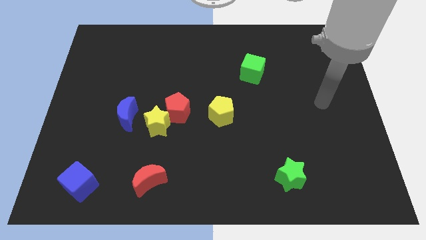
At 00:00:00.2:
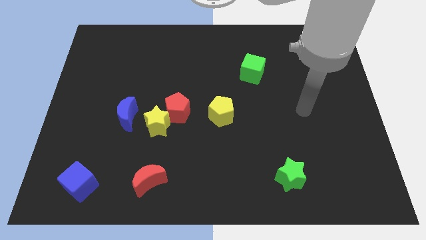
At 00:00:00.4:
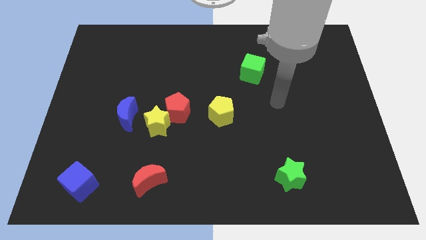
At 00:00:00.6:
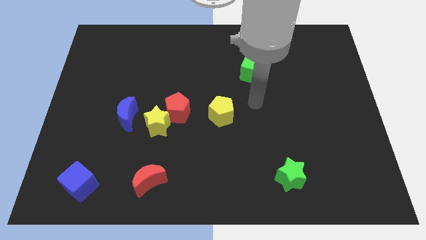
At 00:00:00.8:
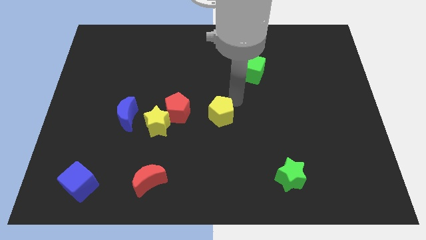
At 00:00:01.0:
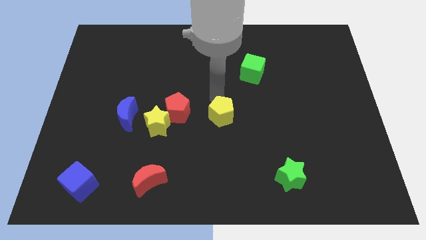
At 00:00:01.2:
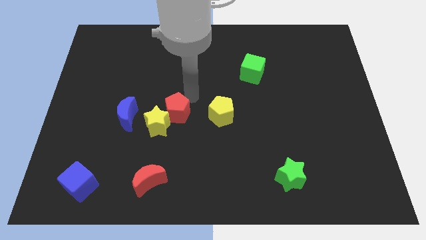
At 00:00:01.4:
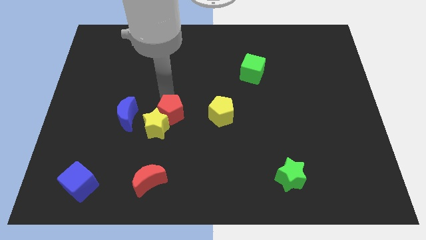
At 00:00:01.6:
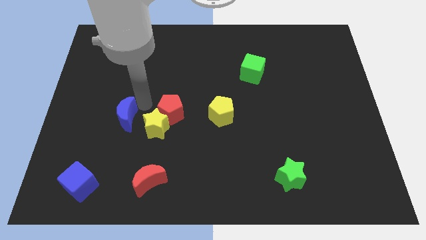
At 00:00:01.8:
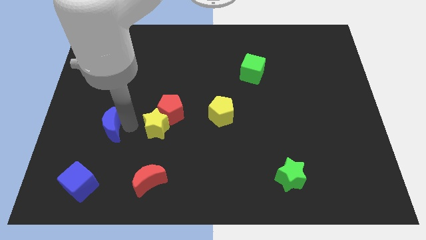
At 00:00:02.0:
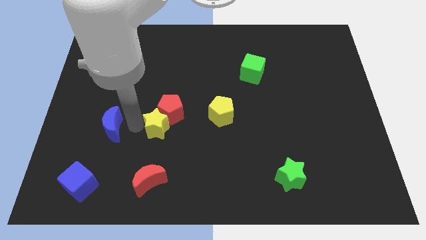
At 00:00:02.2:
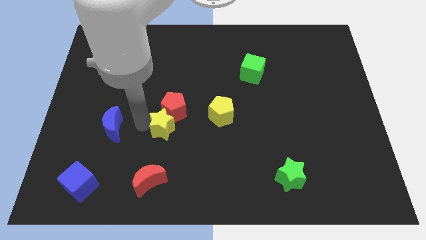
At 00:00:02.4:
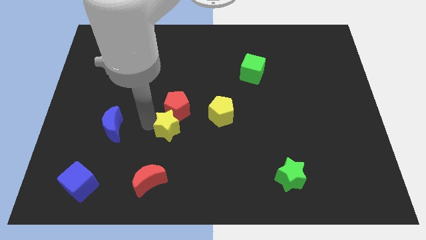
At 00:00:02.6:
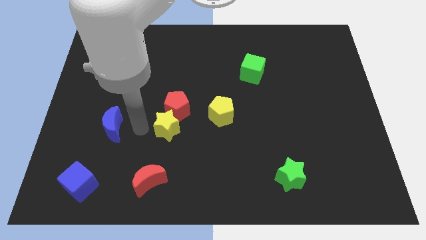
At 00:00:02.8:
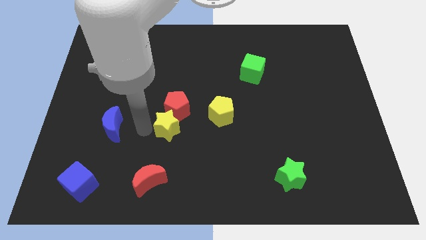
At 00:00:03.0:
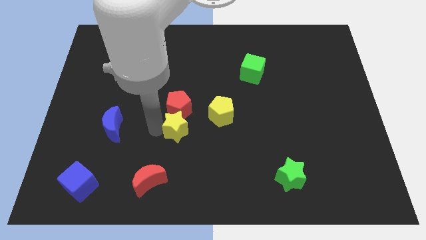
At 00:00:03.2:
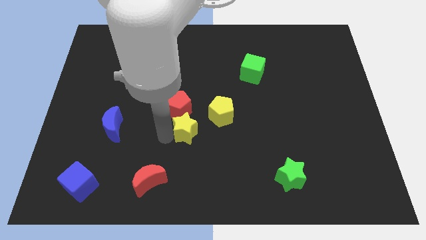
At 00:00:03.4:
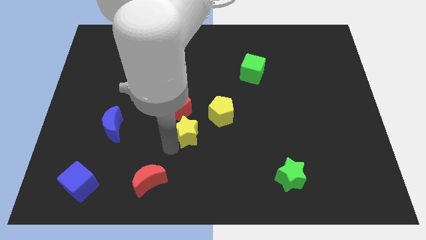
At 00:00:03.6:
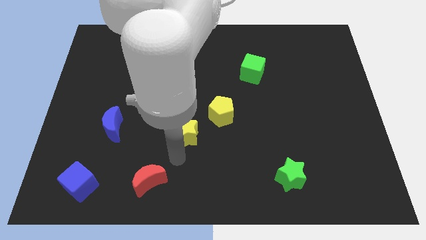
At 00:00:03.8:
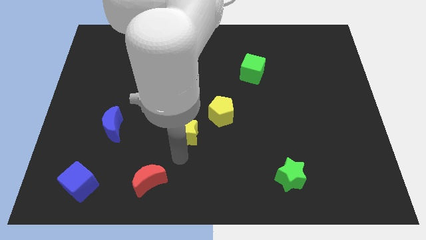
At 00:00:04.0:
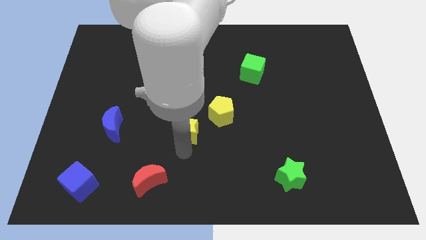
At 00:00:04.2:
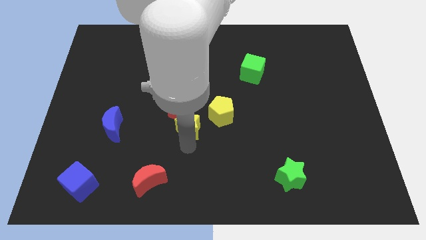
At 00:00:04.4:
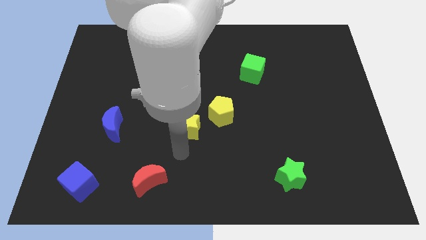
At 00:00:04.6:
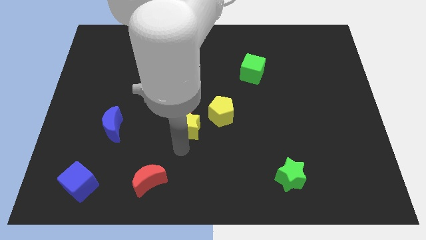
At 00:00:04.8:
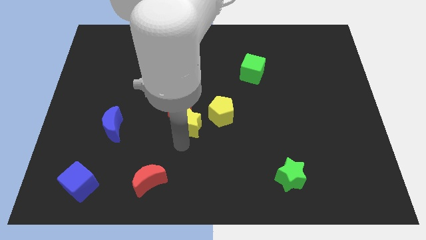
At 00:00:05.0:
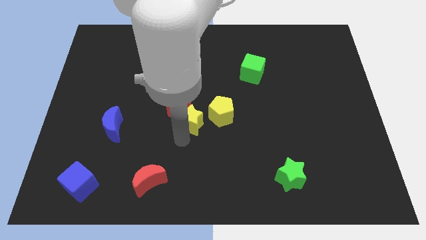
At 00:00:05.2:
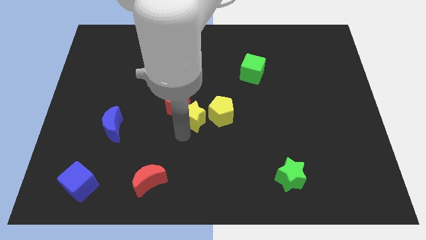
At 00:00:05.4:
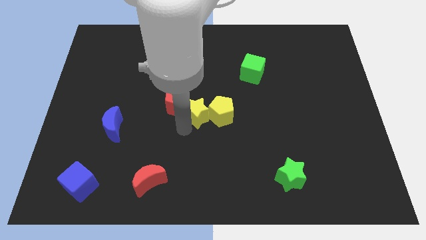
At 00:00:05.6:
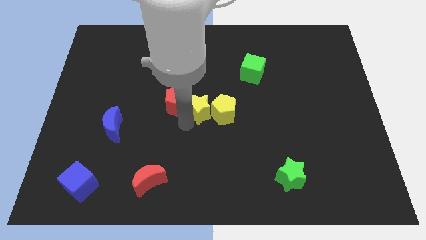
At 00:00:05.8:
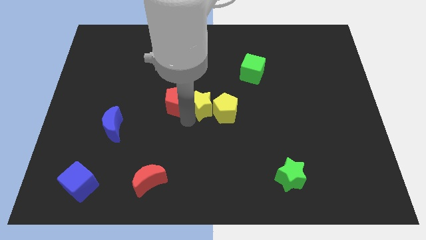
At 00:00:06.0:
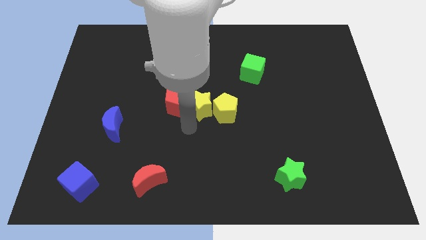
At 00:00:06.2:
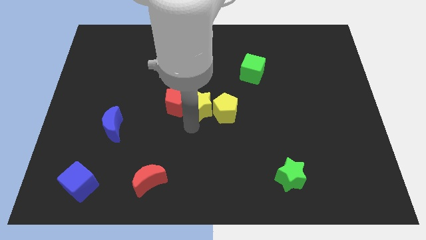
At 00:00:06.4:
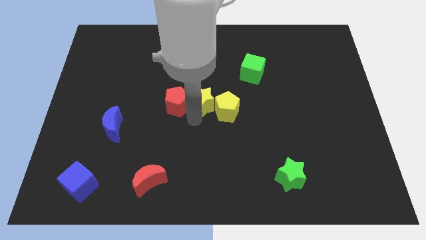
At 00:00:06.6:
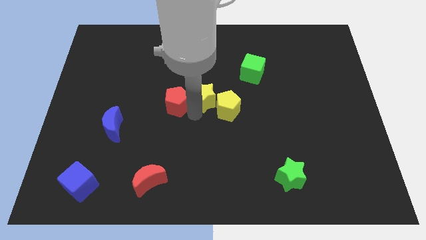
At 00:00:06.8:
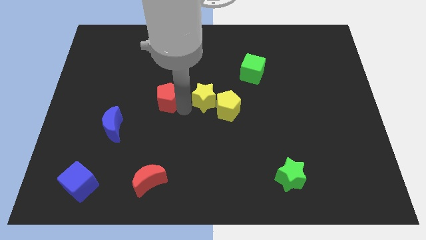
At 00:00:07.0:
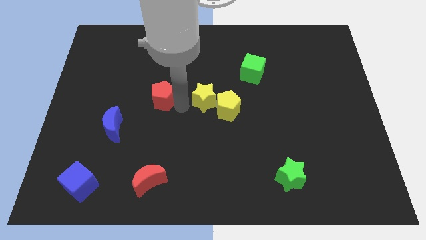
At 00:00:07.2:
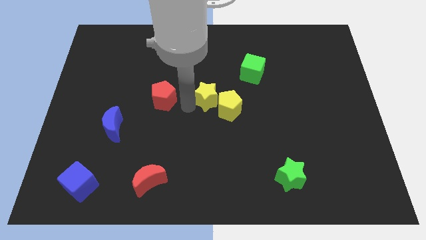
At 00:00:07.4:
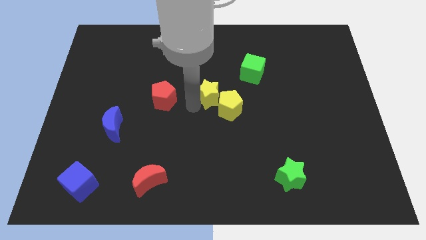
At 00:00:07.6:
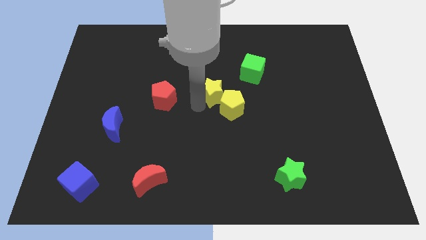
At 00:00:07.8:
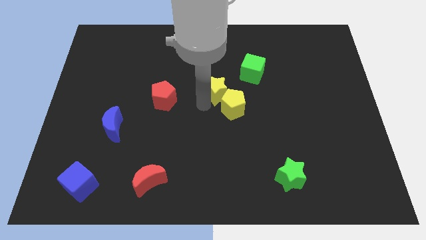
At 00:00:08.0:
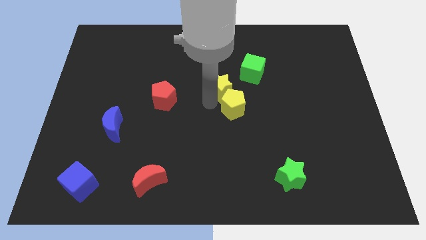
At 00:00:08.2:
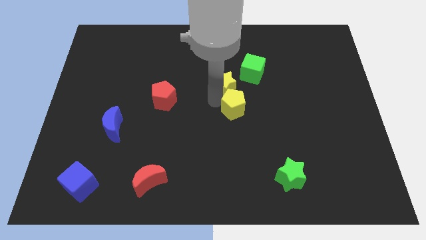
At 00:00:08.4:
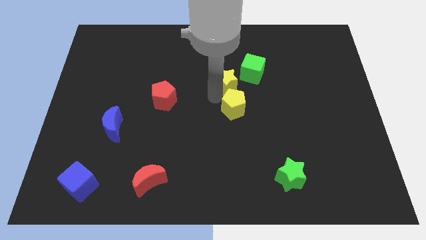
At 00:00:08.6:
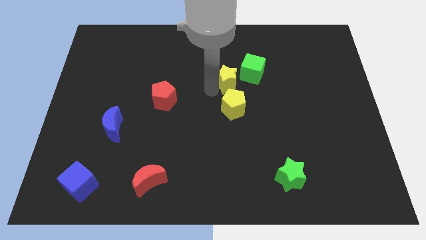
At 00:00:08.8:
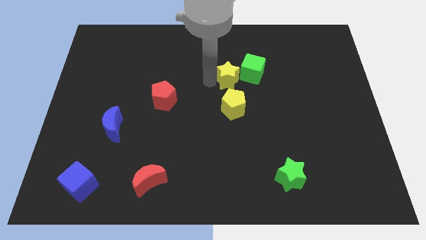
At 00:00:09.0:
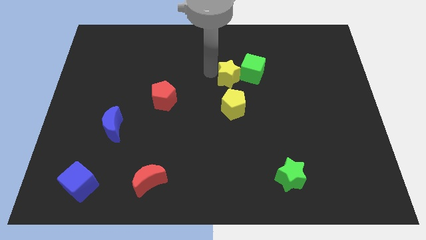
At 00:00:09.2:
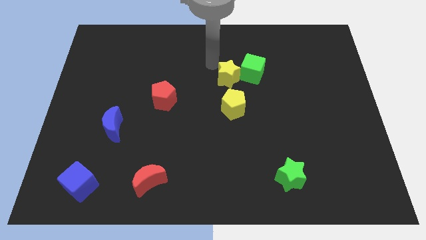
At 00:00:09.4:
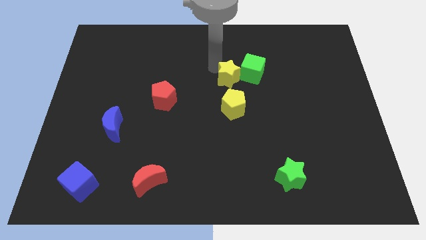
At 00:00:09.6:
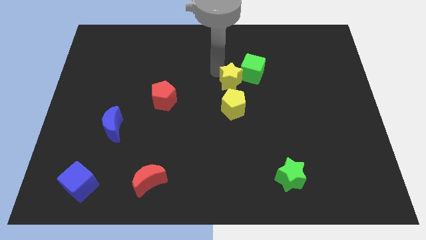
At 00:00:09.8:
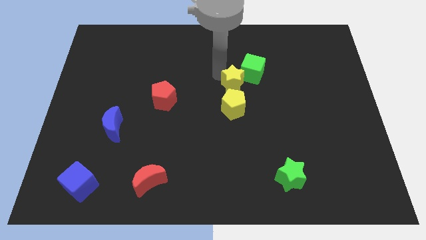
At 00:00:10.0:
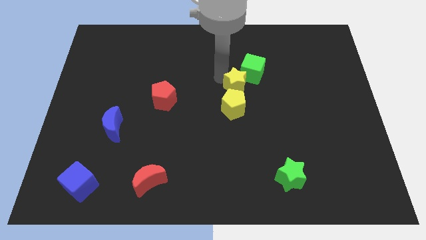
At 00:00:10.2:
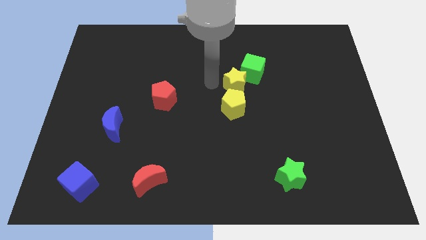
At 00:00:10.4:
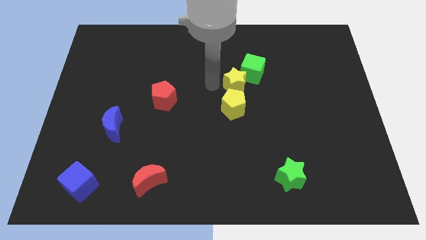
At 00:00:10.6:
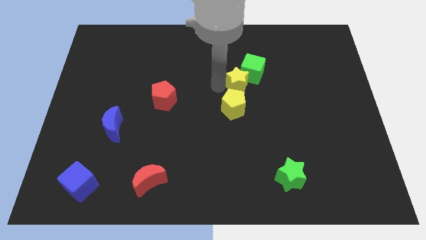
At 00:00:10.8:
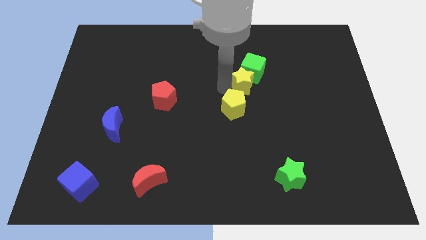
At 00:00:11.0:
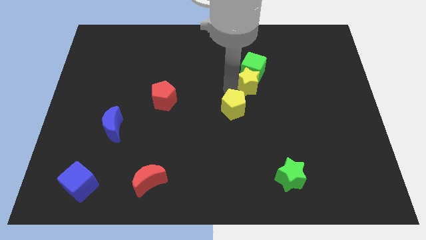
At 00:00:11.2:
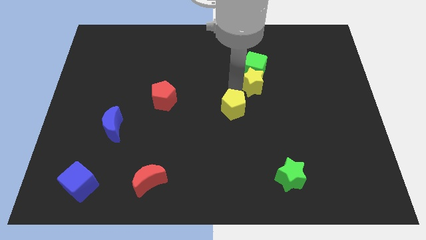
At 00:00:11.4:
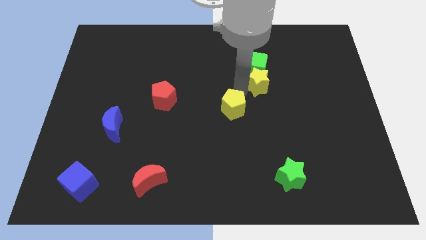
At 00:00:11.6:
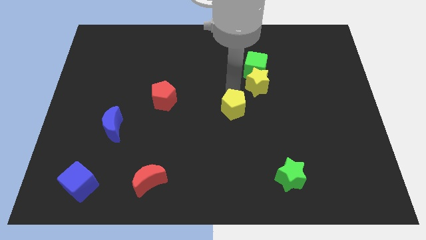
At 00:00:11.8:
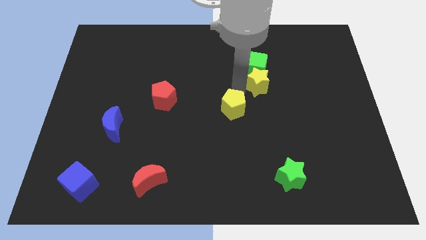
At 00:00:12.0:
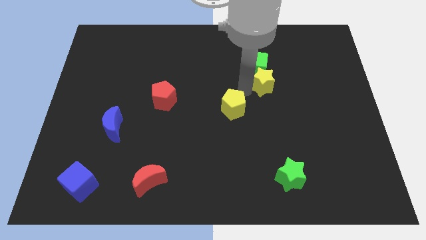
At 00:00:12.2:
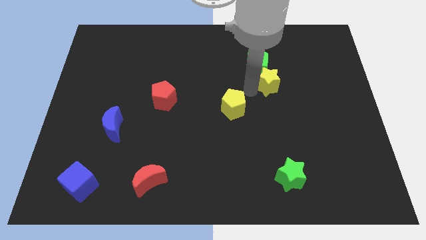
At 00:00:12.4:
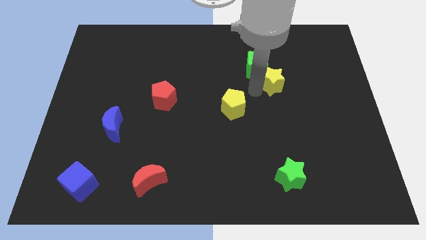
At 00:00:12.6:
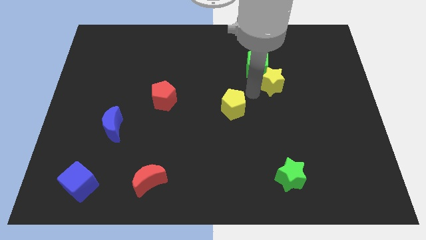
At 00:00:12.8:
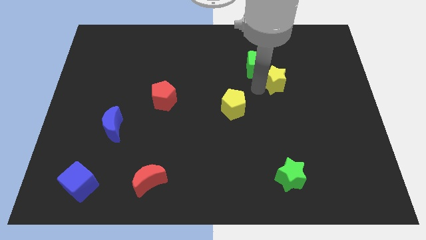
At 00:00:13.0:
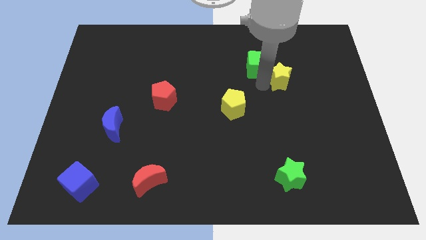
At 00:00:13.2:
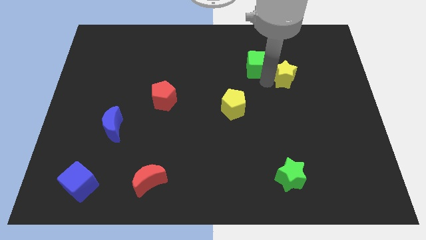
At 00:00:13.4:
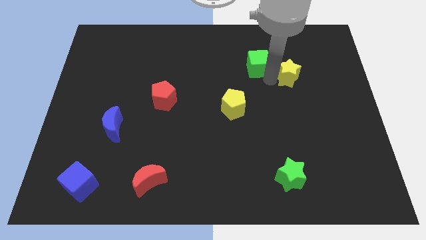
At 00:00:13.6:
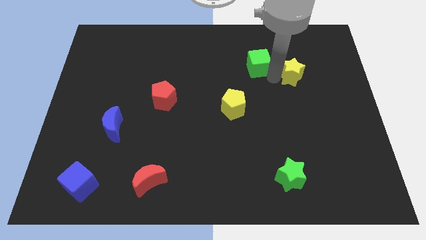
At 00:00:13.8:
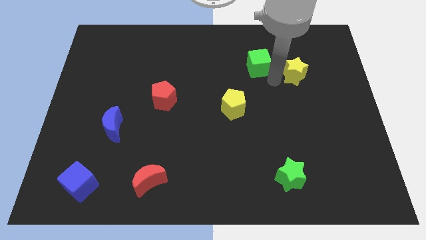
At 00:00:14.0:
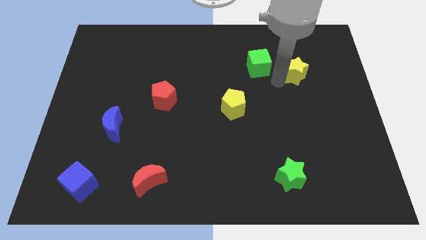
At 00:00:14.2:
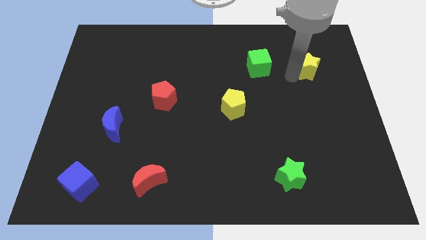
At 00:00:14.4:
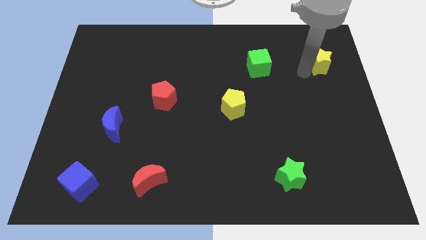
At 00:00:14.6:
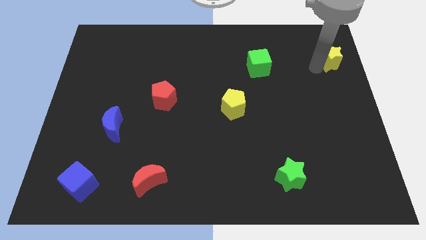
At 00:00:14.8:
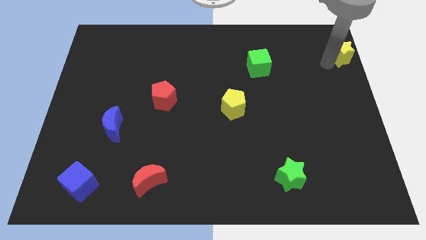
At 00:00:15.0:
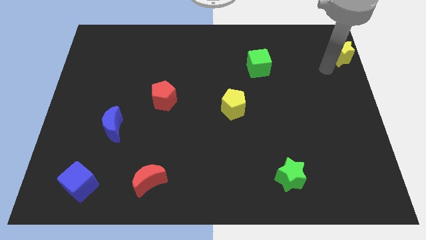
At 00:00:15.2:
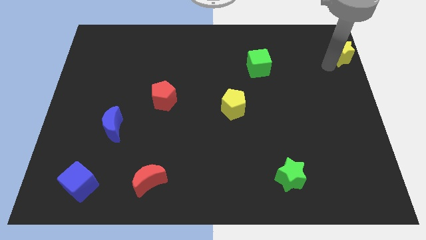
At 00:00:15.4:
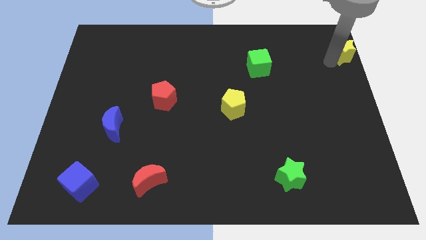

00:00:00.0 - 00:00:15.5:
slide the yellow star to the top right
